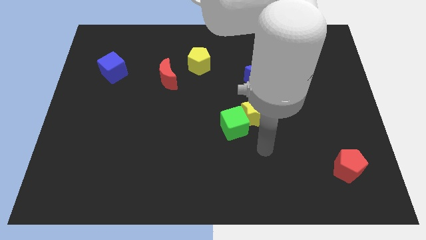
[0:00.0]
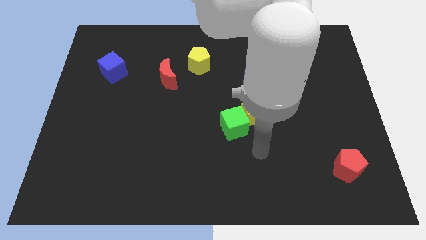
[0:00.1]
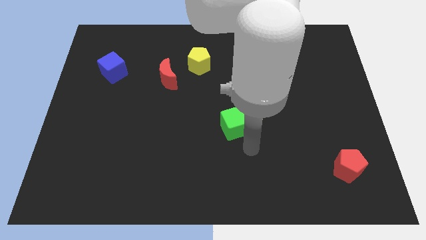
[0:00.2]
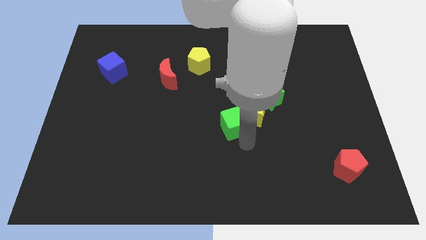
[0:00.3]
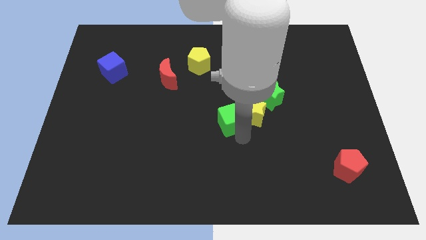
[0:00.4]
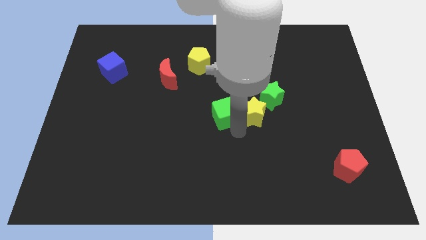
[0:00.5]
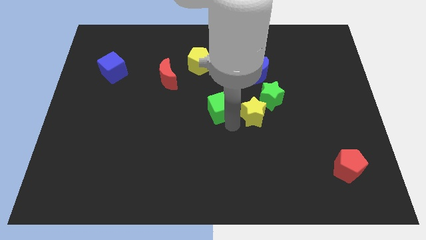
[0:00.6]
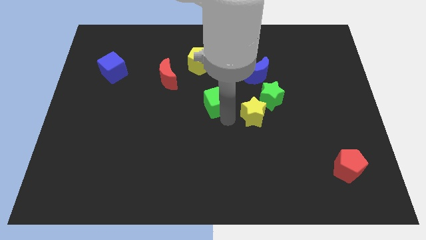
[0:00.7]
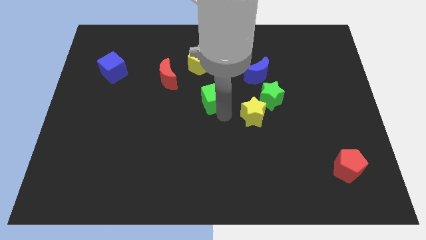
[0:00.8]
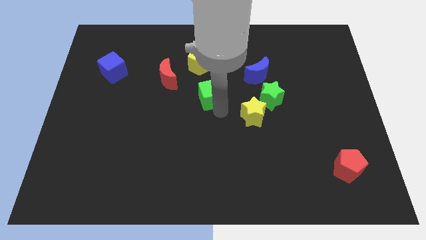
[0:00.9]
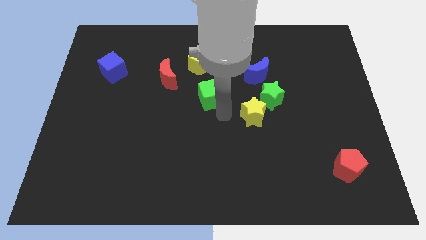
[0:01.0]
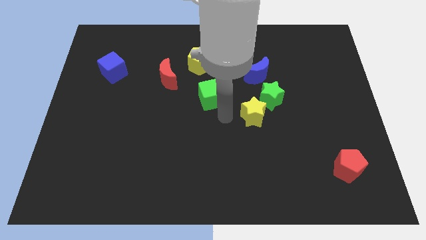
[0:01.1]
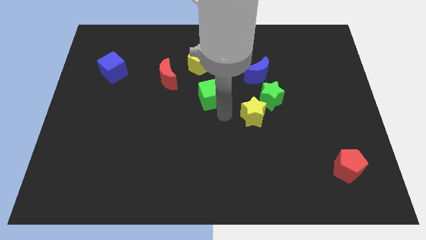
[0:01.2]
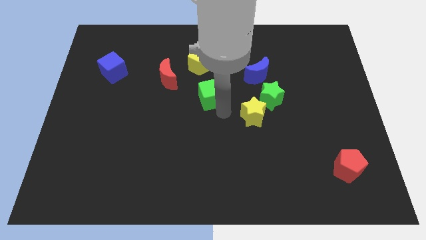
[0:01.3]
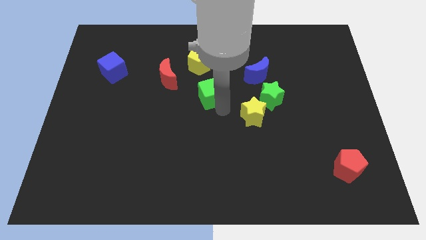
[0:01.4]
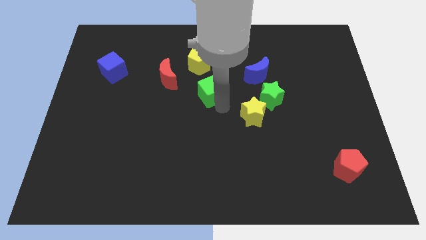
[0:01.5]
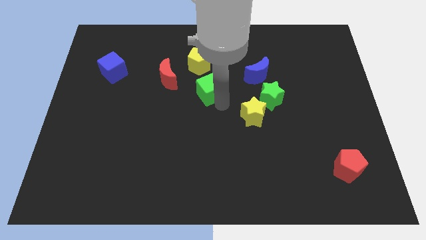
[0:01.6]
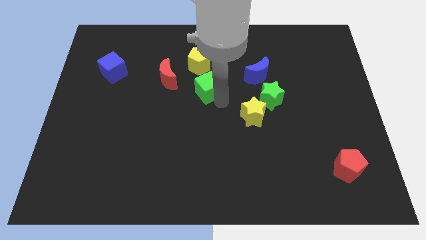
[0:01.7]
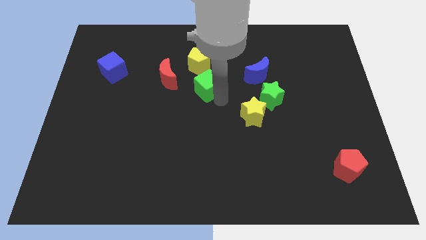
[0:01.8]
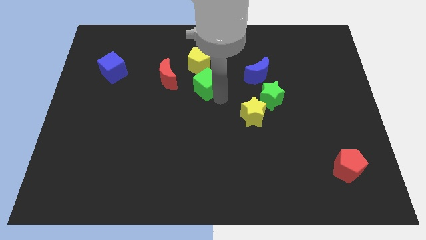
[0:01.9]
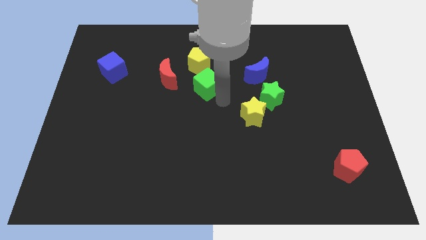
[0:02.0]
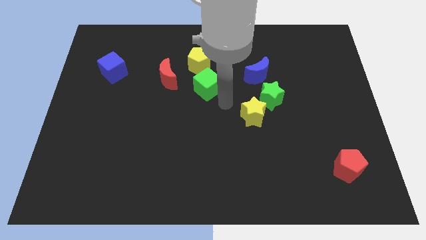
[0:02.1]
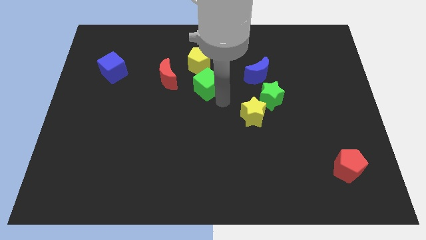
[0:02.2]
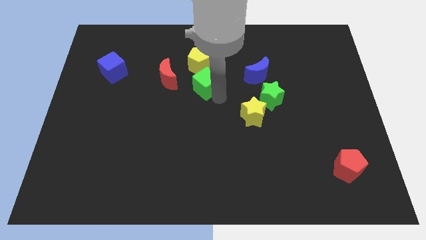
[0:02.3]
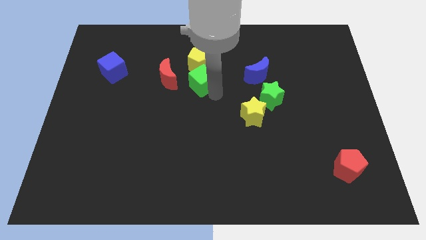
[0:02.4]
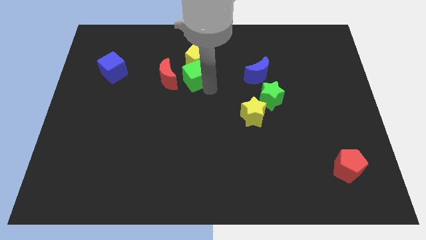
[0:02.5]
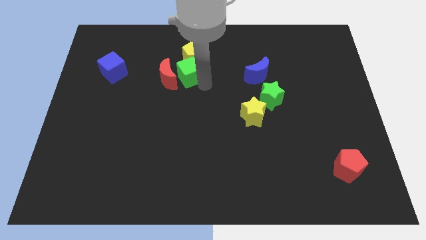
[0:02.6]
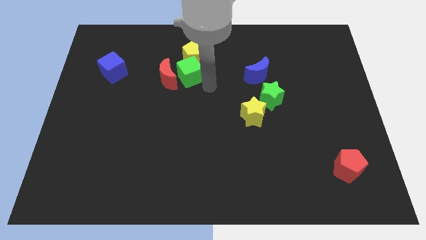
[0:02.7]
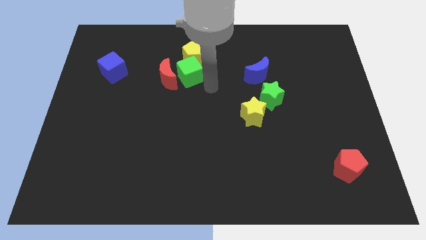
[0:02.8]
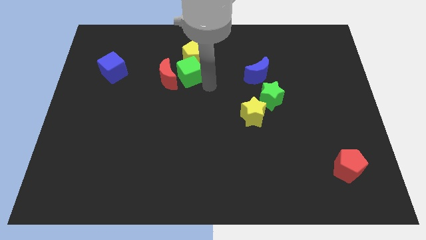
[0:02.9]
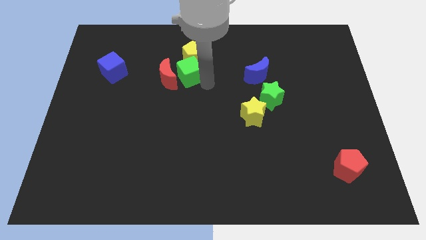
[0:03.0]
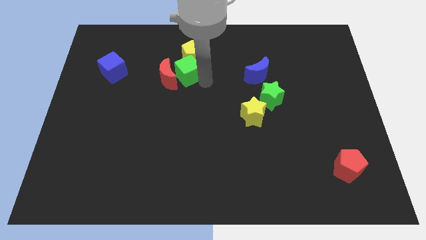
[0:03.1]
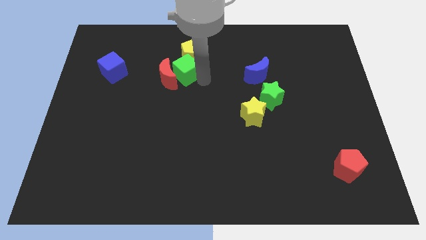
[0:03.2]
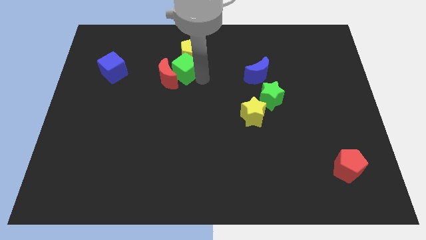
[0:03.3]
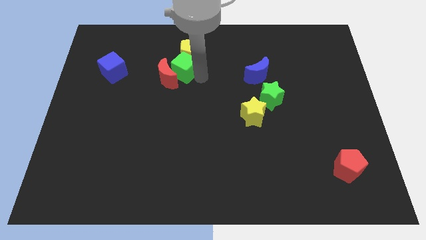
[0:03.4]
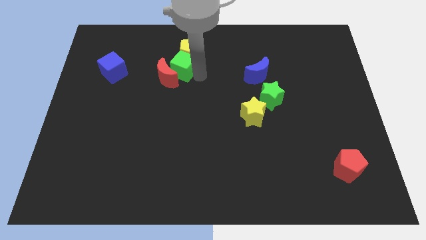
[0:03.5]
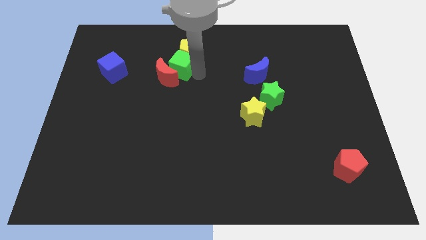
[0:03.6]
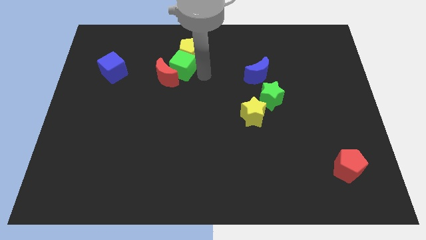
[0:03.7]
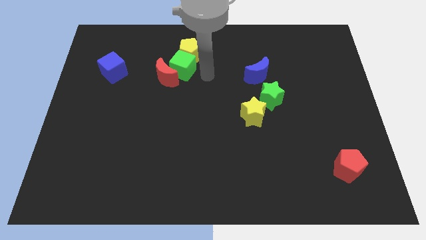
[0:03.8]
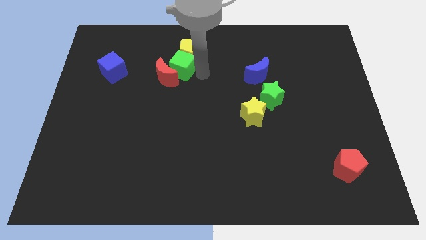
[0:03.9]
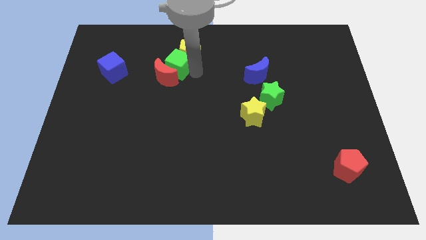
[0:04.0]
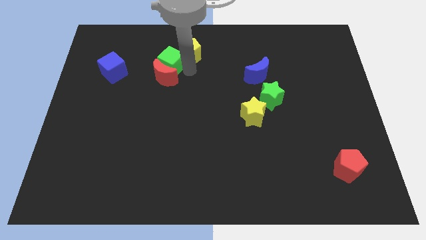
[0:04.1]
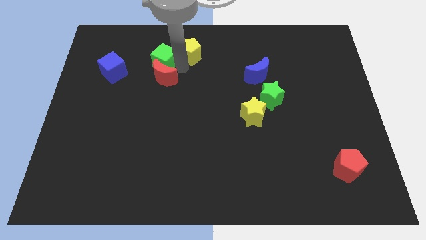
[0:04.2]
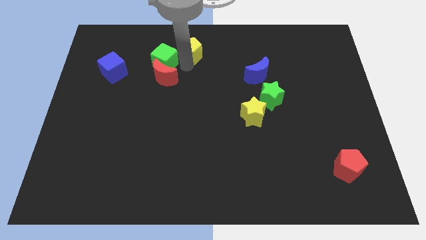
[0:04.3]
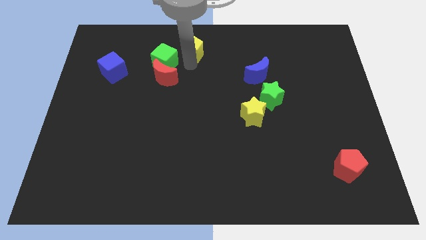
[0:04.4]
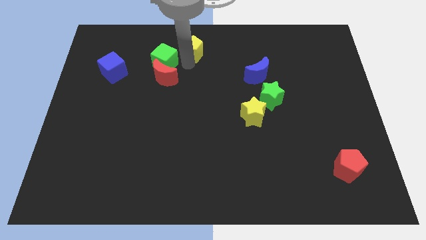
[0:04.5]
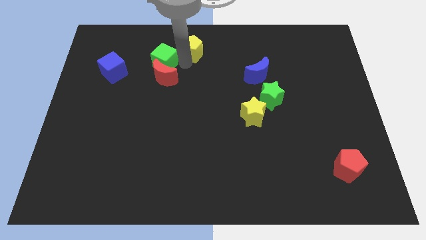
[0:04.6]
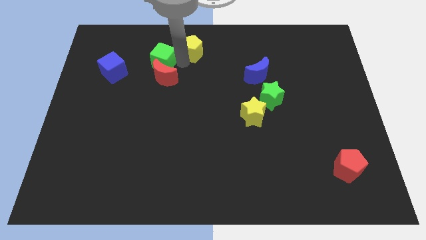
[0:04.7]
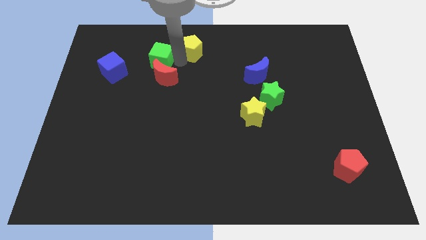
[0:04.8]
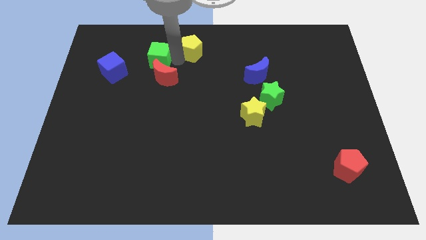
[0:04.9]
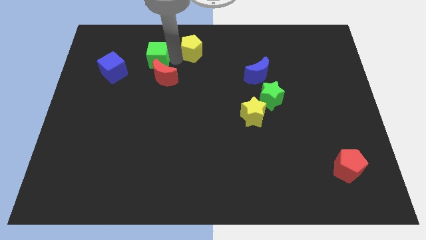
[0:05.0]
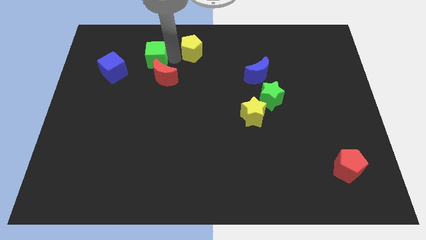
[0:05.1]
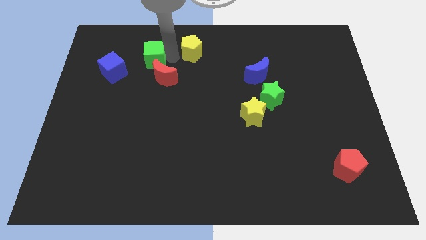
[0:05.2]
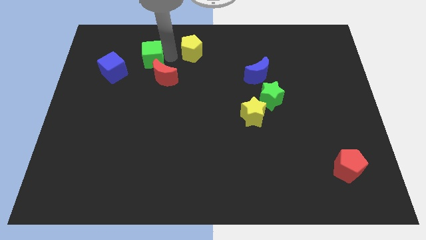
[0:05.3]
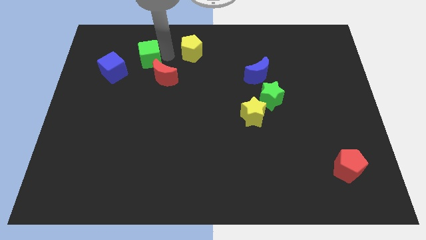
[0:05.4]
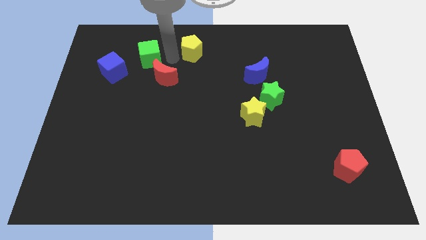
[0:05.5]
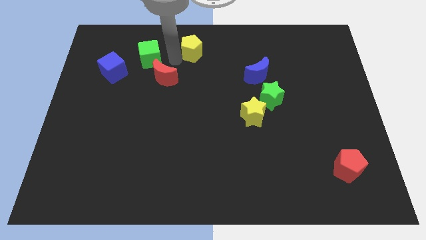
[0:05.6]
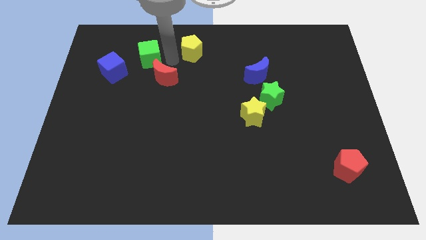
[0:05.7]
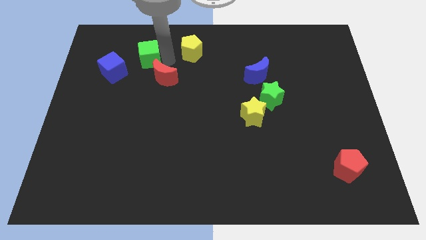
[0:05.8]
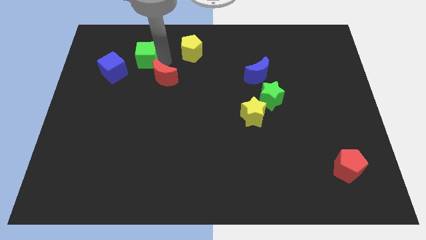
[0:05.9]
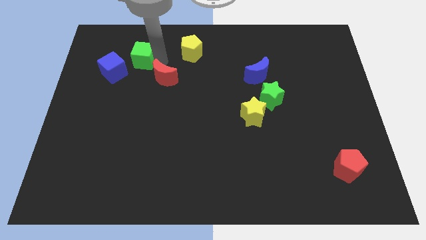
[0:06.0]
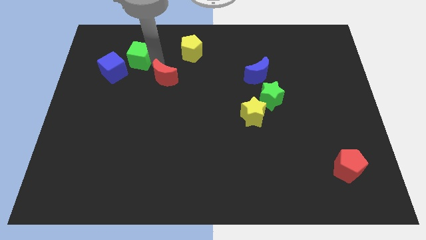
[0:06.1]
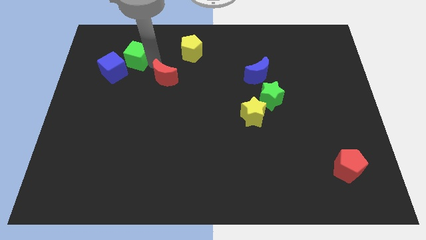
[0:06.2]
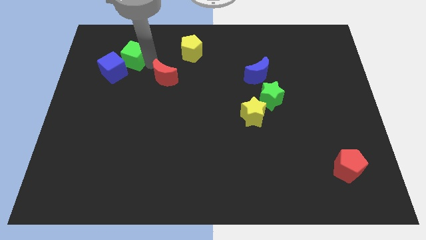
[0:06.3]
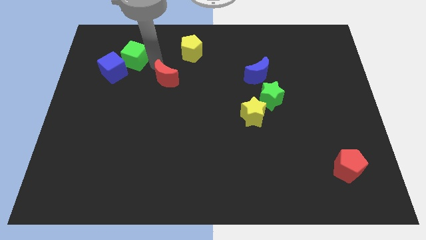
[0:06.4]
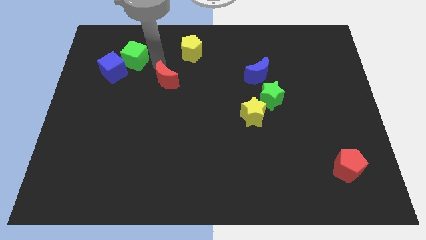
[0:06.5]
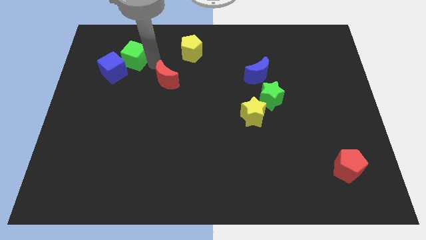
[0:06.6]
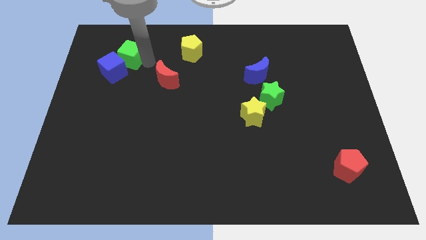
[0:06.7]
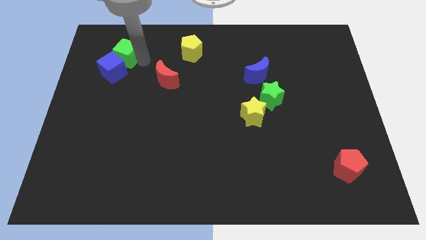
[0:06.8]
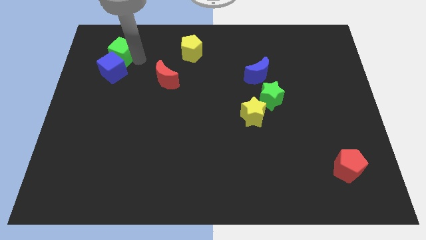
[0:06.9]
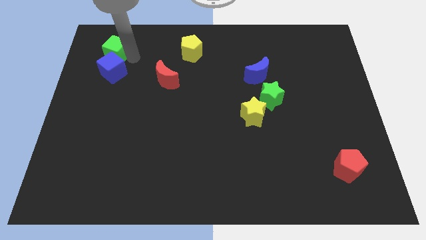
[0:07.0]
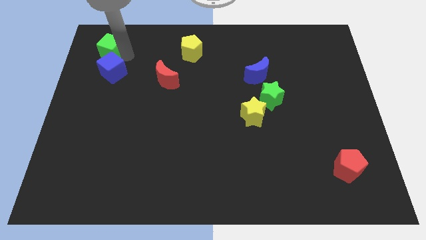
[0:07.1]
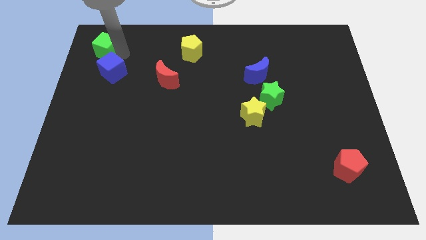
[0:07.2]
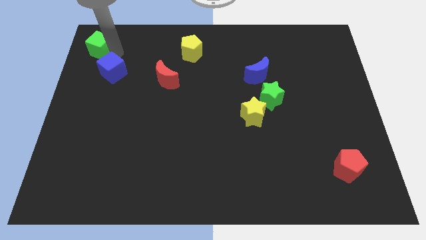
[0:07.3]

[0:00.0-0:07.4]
push the green cube to the top left corner
